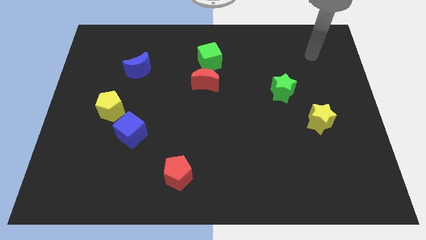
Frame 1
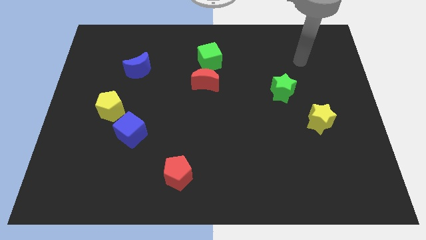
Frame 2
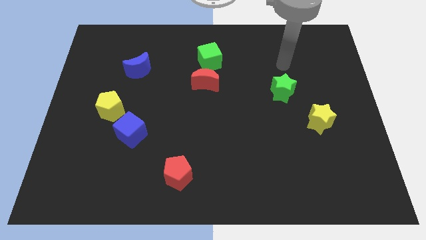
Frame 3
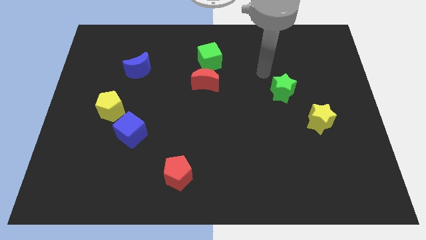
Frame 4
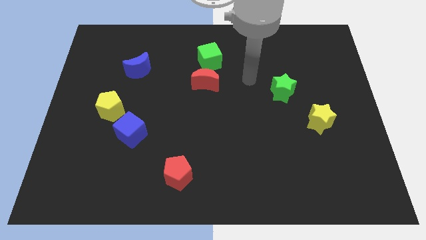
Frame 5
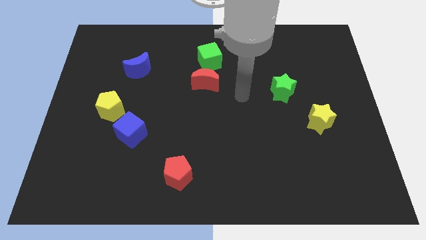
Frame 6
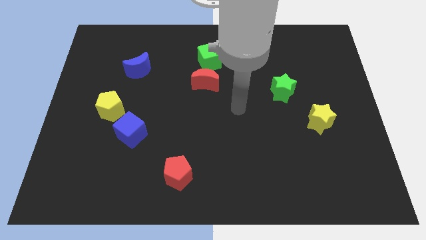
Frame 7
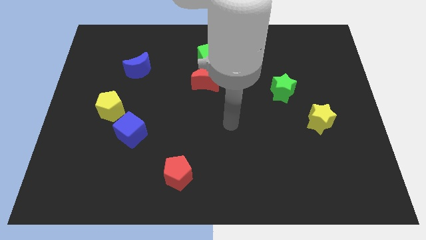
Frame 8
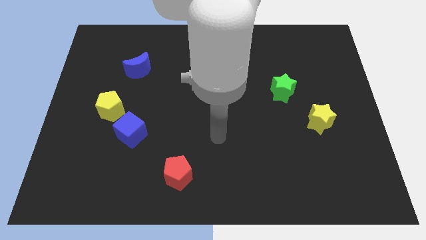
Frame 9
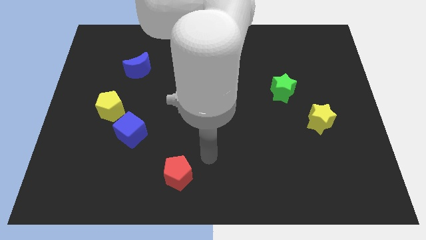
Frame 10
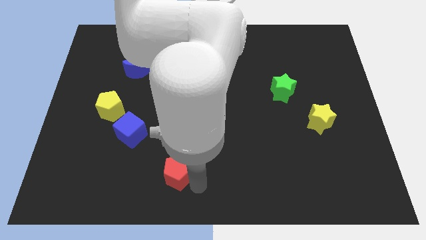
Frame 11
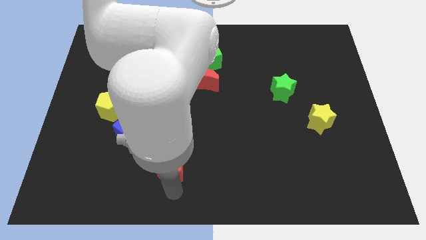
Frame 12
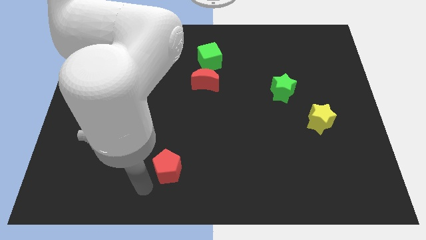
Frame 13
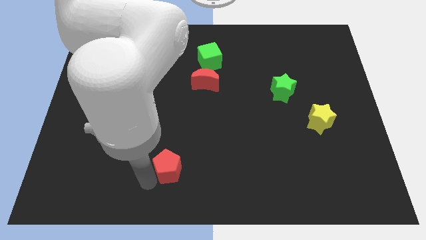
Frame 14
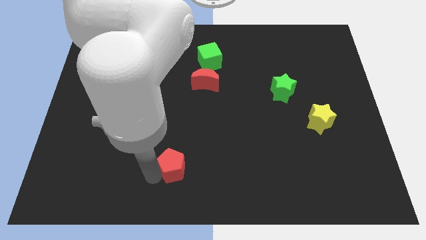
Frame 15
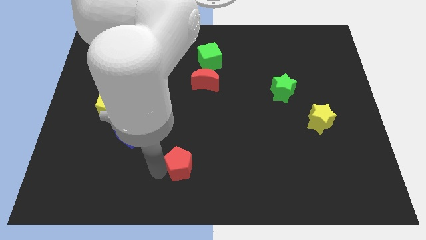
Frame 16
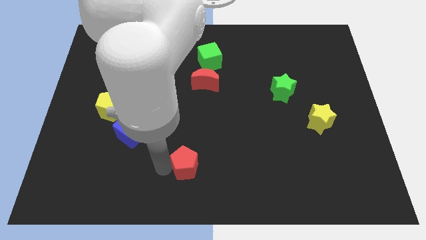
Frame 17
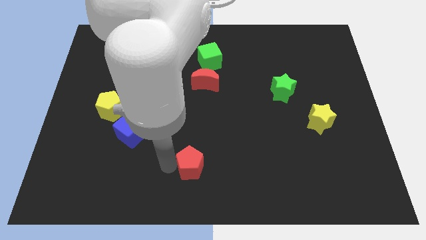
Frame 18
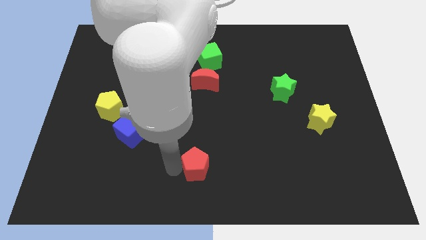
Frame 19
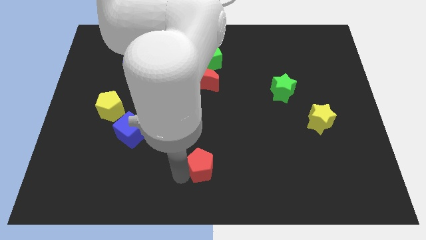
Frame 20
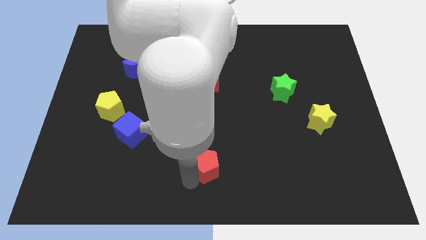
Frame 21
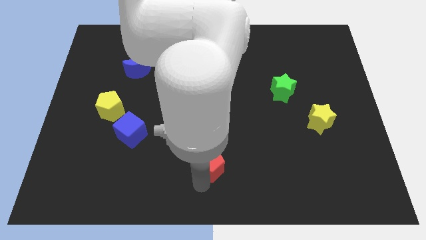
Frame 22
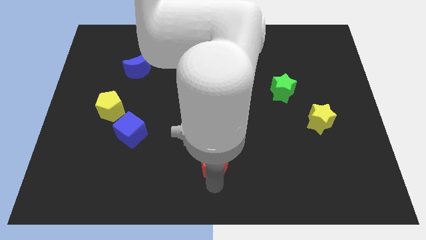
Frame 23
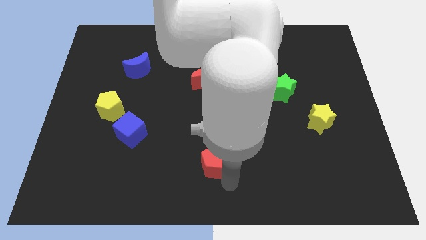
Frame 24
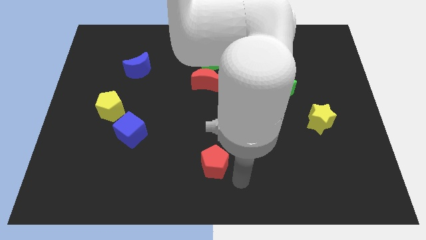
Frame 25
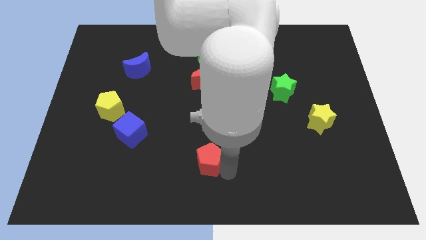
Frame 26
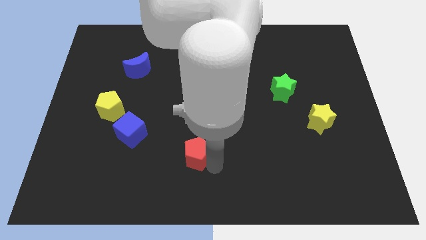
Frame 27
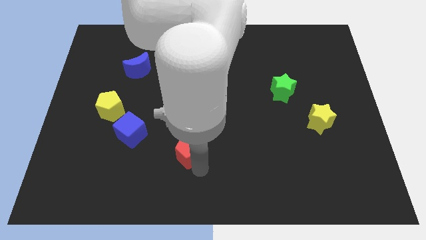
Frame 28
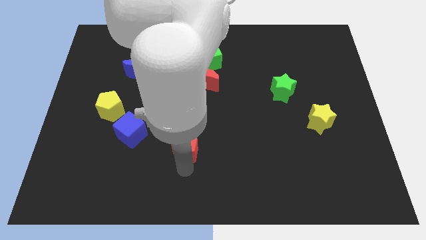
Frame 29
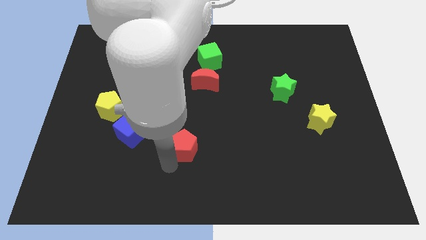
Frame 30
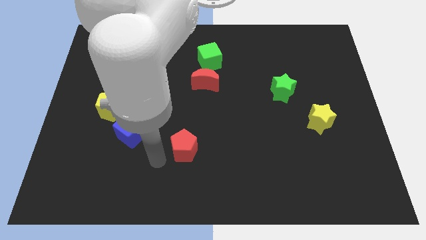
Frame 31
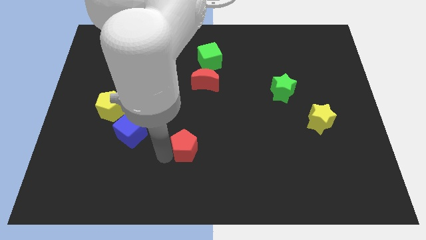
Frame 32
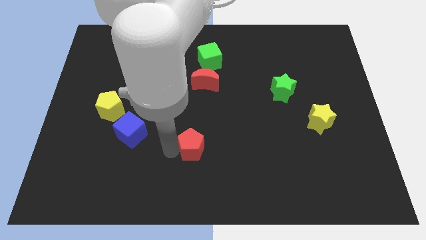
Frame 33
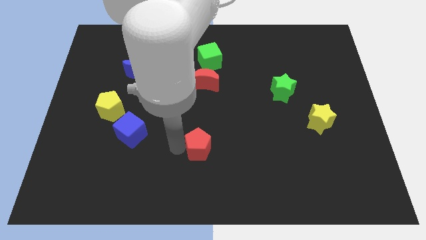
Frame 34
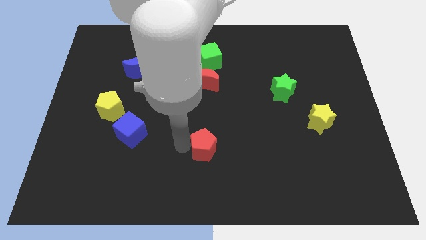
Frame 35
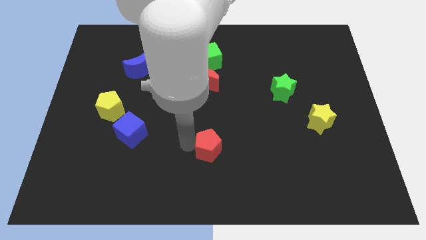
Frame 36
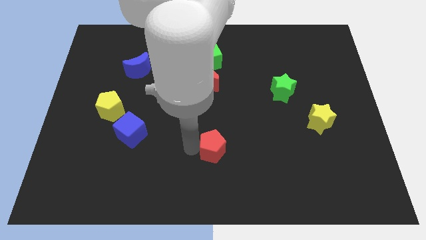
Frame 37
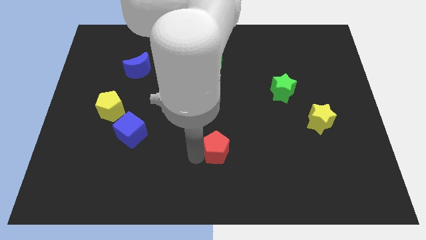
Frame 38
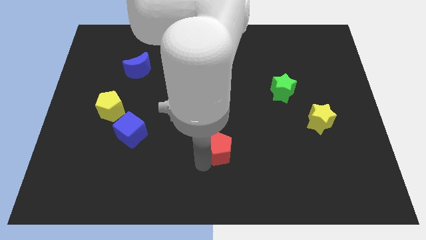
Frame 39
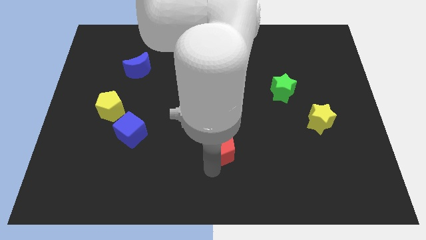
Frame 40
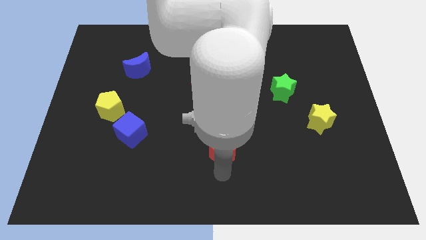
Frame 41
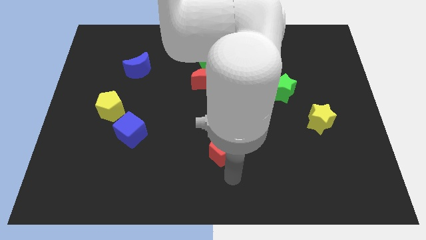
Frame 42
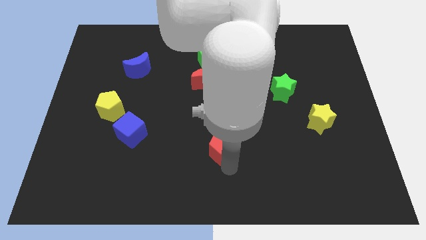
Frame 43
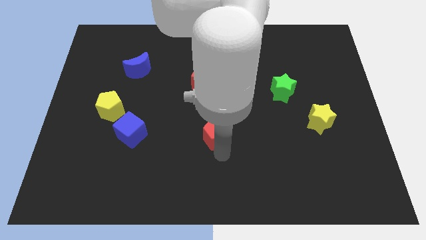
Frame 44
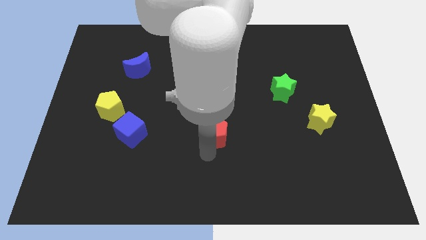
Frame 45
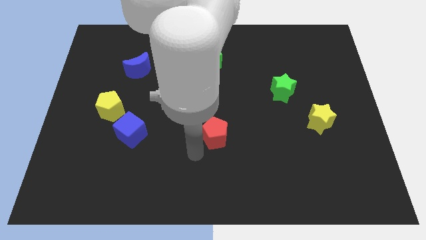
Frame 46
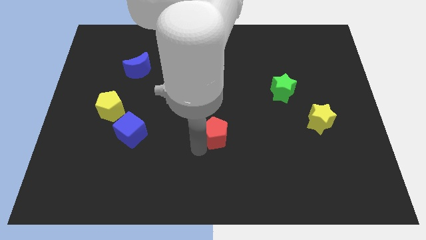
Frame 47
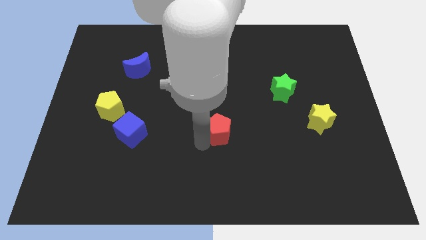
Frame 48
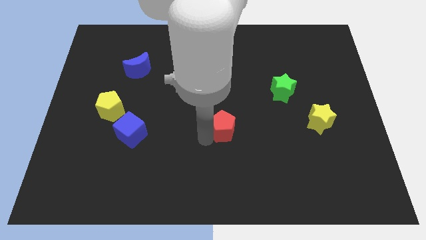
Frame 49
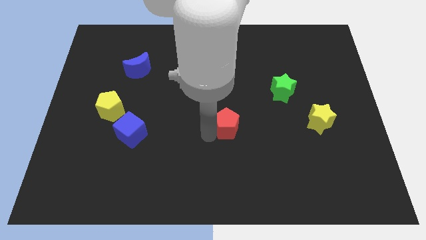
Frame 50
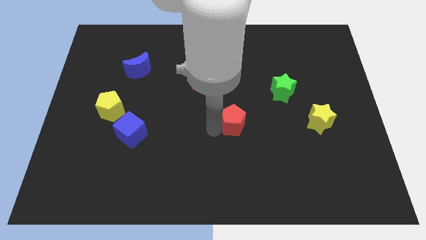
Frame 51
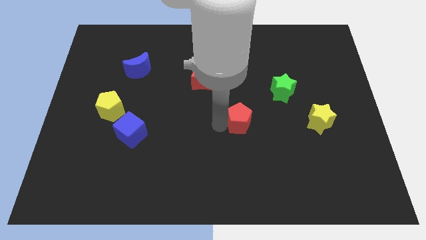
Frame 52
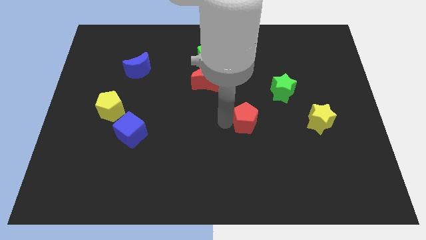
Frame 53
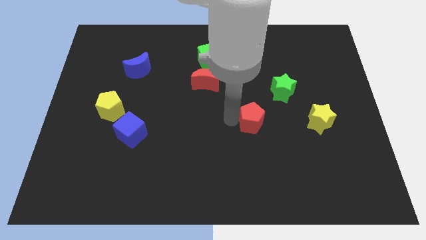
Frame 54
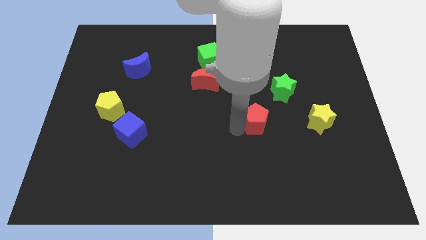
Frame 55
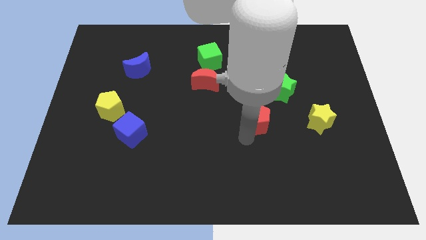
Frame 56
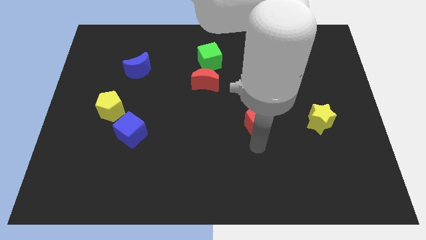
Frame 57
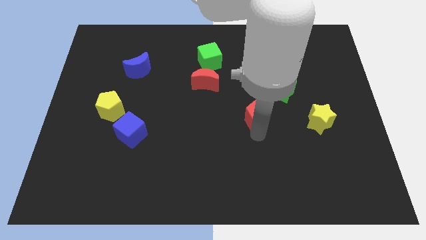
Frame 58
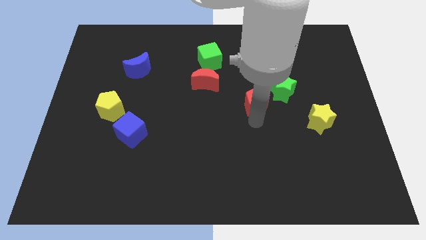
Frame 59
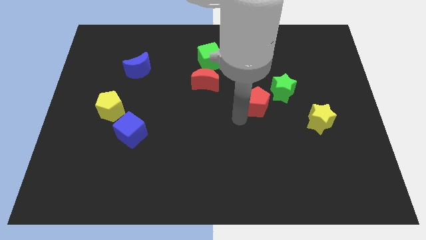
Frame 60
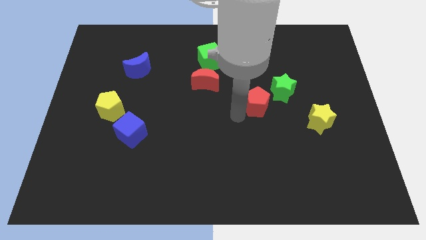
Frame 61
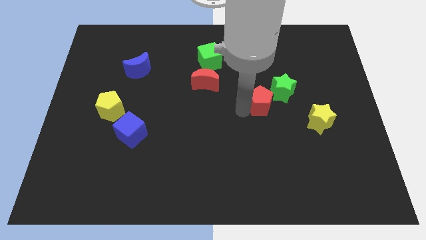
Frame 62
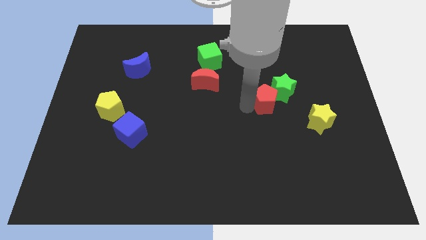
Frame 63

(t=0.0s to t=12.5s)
slide the red pentagon towards the green star
